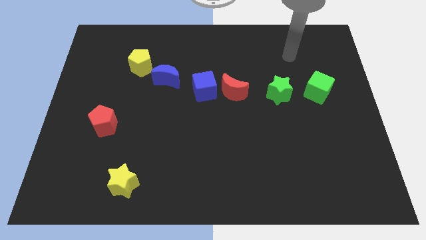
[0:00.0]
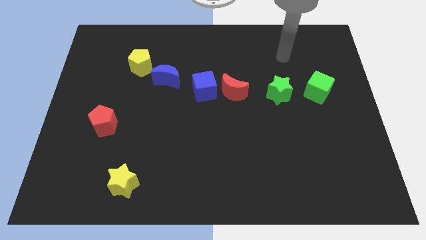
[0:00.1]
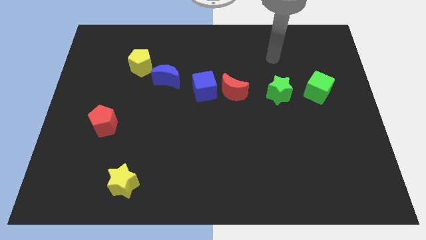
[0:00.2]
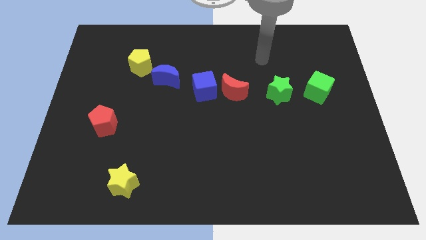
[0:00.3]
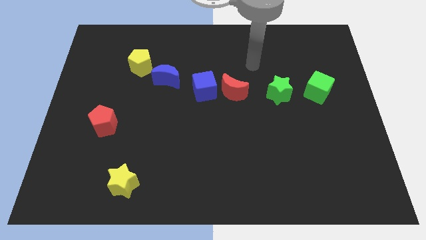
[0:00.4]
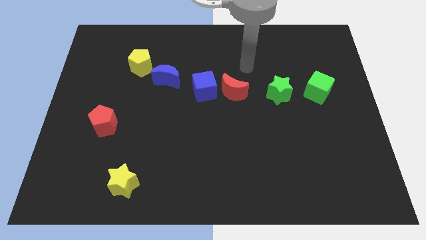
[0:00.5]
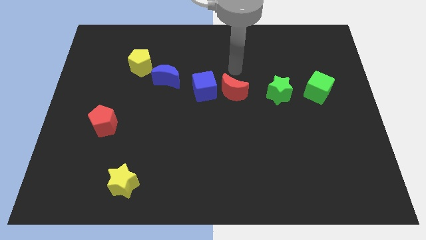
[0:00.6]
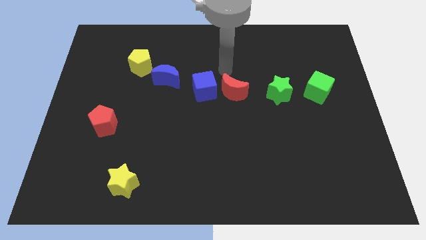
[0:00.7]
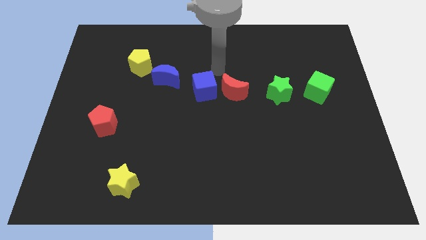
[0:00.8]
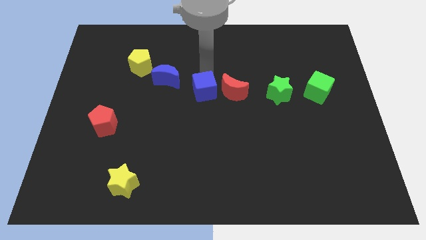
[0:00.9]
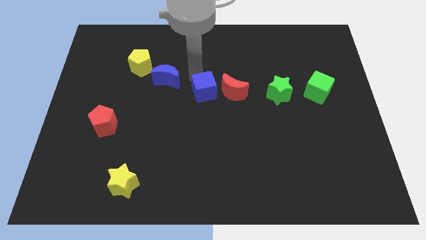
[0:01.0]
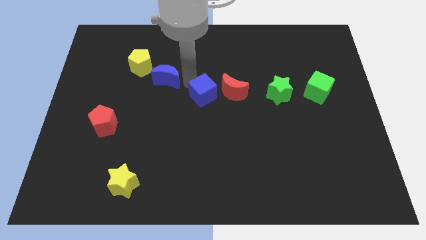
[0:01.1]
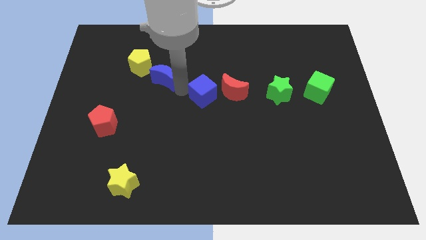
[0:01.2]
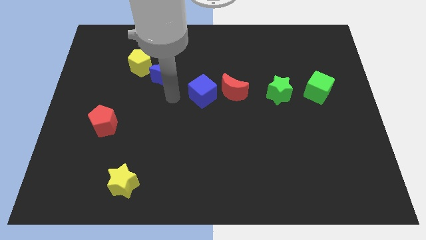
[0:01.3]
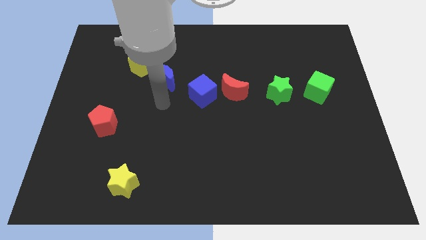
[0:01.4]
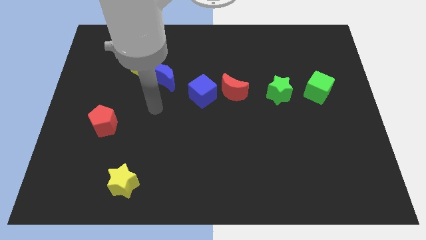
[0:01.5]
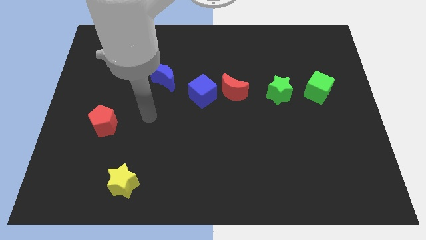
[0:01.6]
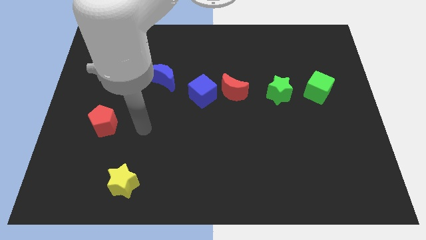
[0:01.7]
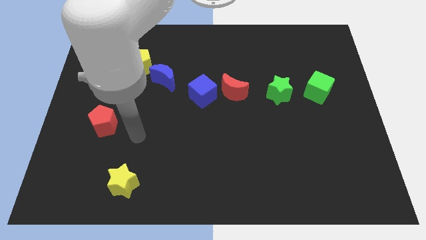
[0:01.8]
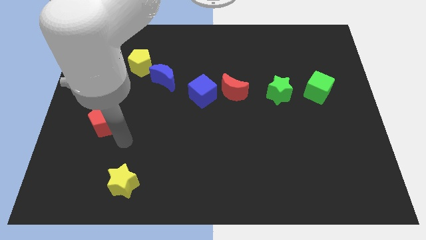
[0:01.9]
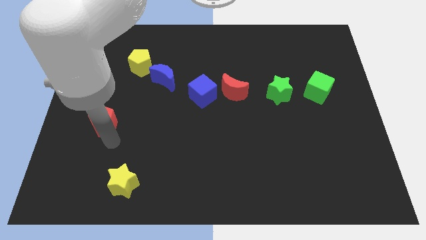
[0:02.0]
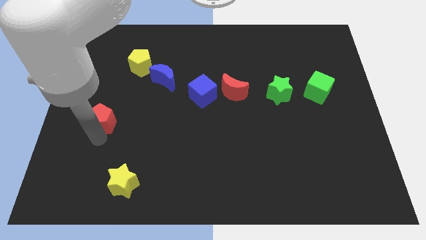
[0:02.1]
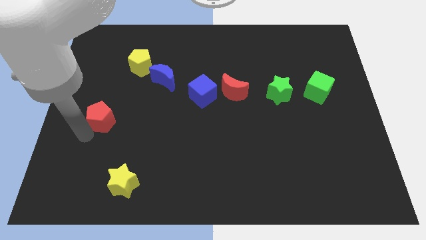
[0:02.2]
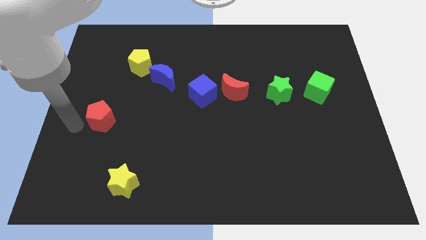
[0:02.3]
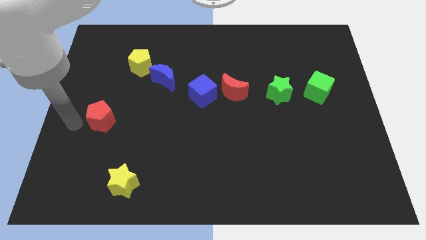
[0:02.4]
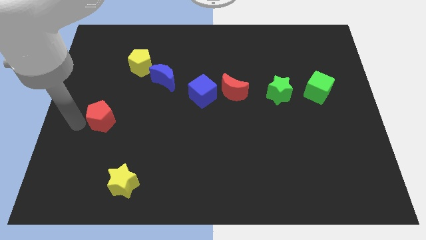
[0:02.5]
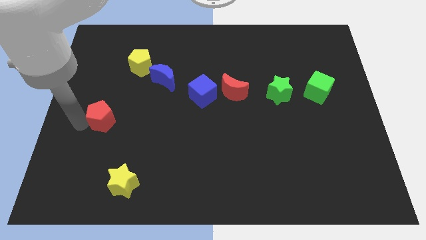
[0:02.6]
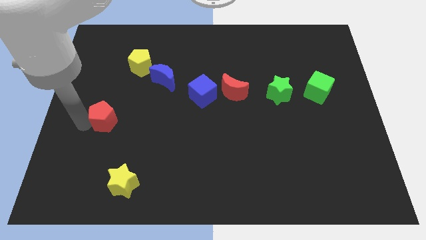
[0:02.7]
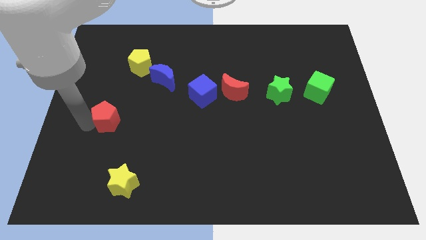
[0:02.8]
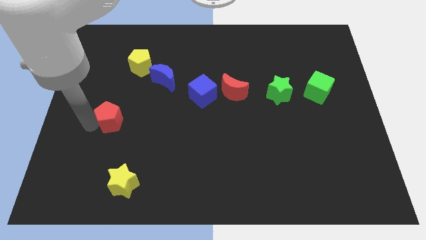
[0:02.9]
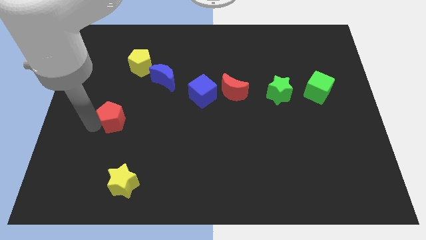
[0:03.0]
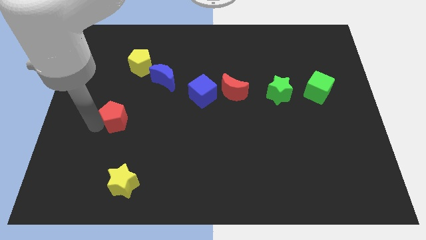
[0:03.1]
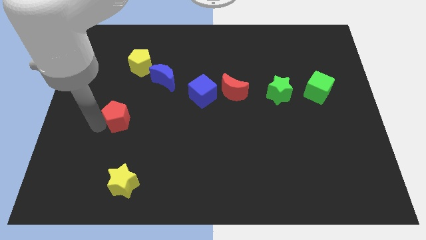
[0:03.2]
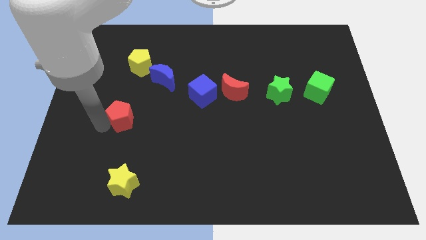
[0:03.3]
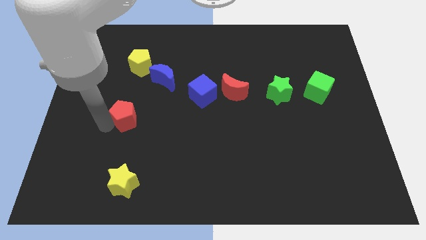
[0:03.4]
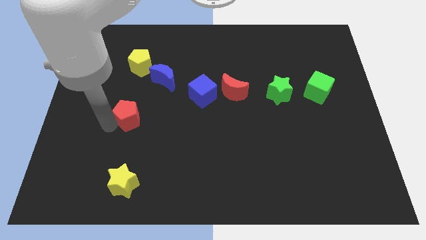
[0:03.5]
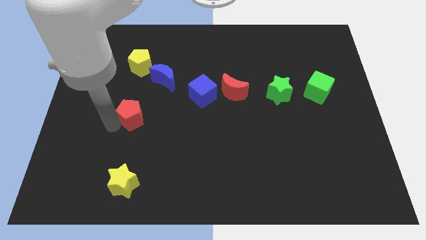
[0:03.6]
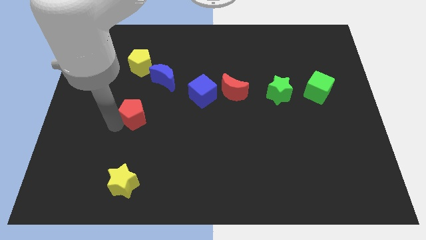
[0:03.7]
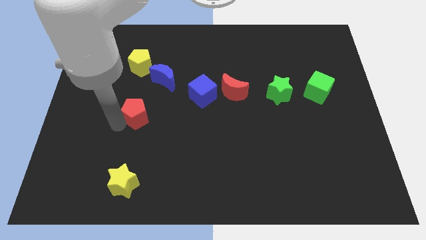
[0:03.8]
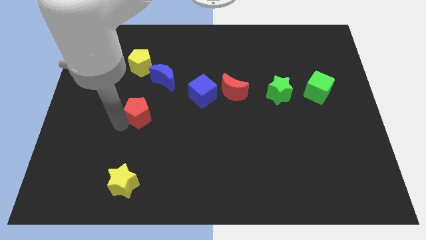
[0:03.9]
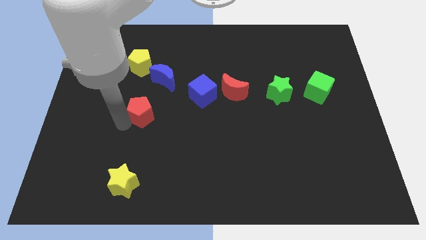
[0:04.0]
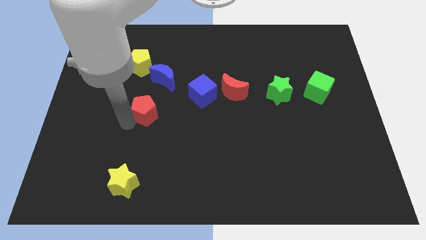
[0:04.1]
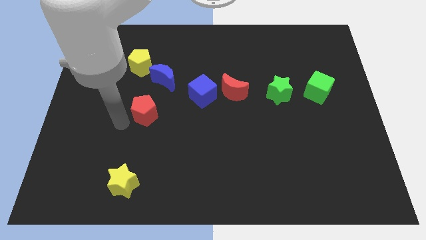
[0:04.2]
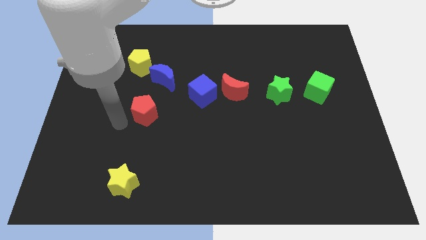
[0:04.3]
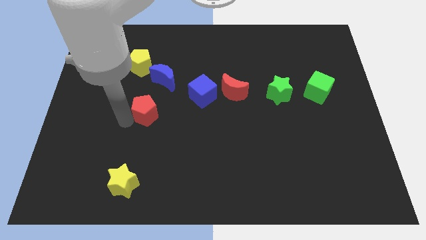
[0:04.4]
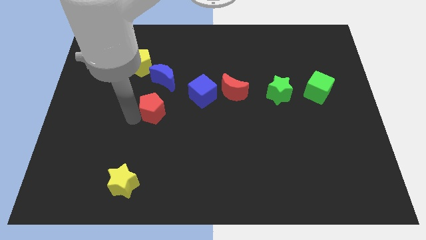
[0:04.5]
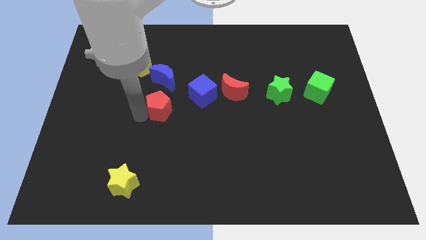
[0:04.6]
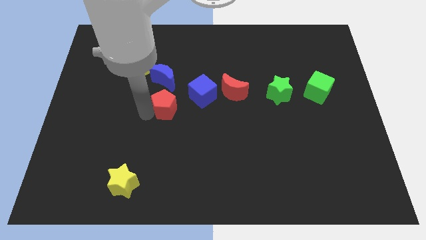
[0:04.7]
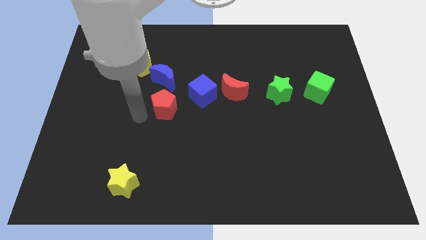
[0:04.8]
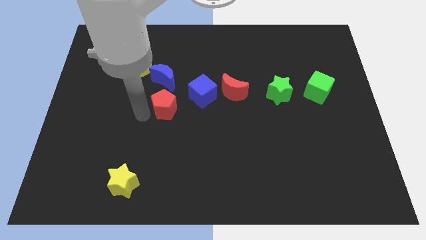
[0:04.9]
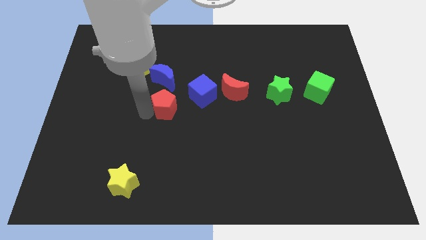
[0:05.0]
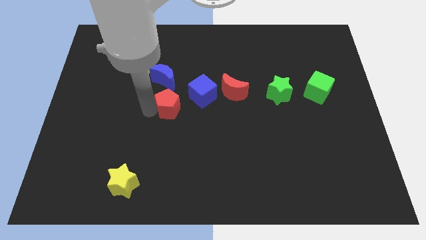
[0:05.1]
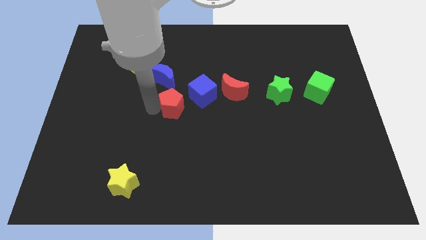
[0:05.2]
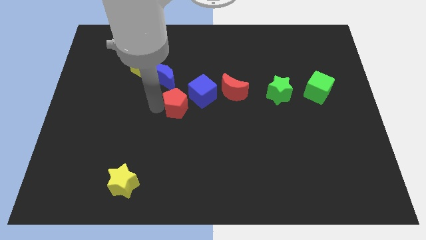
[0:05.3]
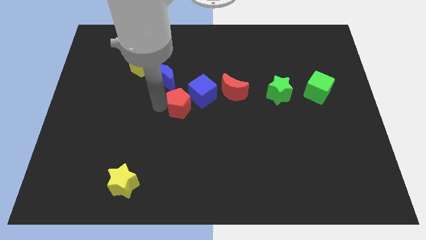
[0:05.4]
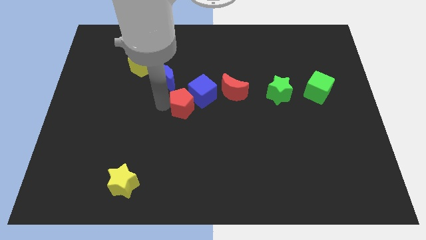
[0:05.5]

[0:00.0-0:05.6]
push the red pentagon next to the blue cube

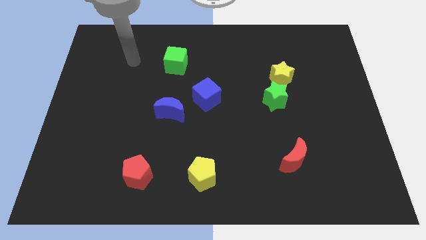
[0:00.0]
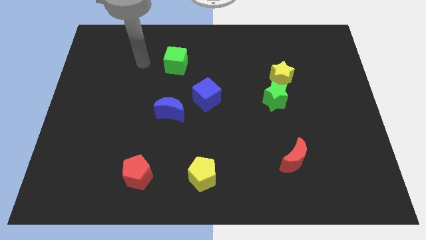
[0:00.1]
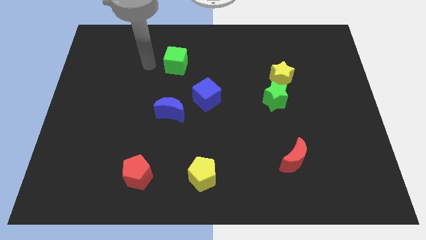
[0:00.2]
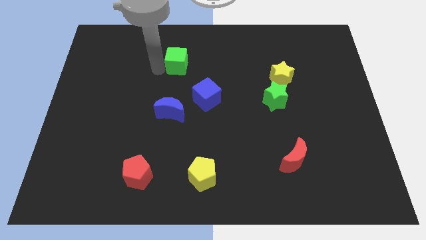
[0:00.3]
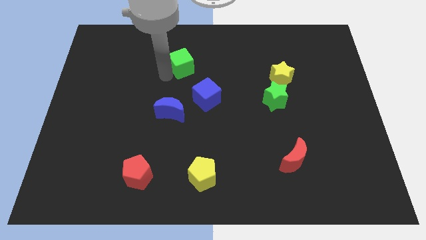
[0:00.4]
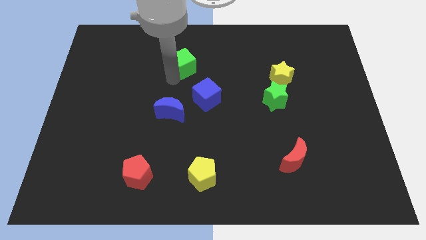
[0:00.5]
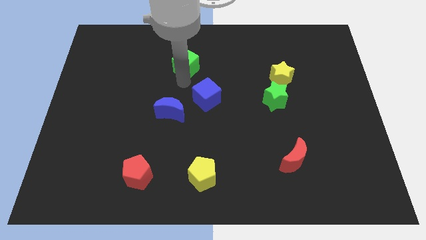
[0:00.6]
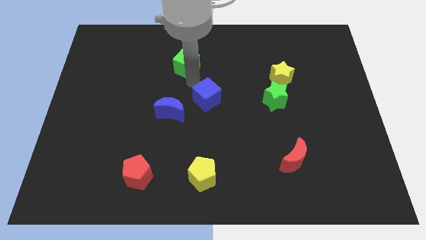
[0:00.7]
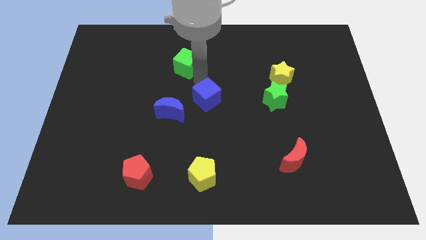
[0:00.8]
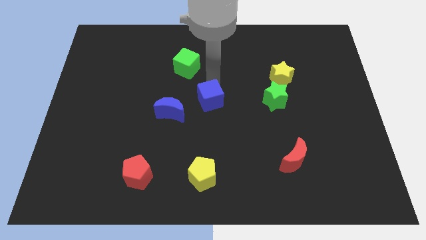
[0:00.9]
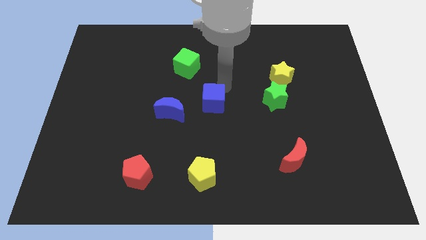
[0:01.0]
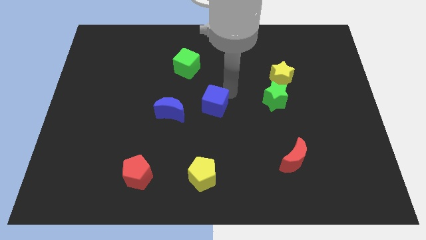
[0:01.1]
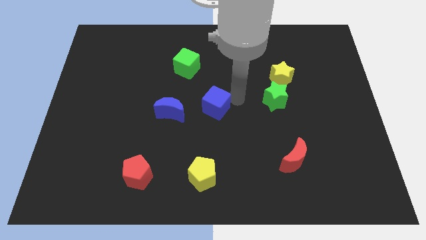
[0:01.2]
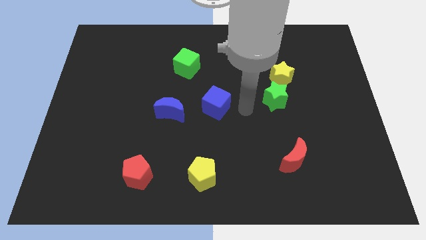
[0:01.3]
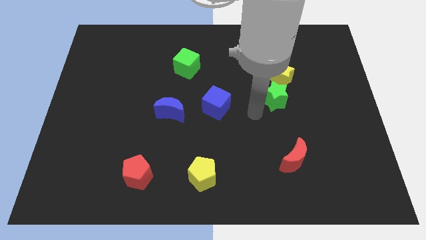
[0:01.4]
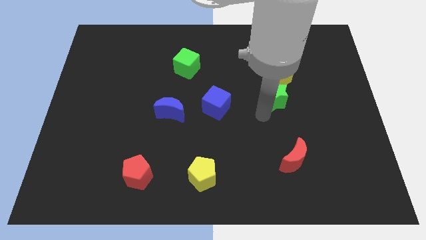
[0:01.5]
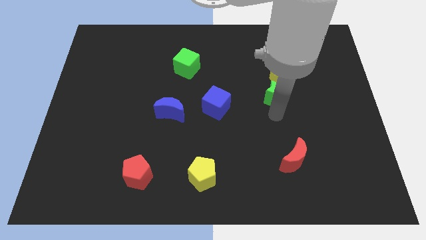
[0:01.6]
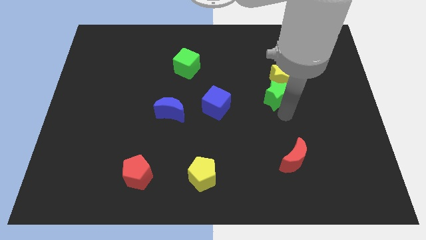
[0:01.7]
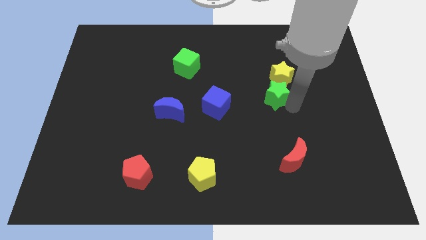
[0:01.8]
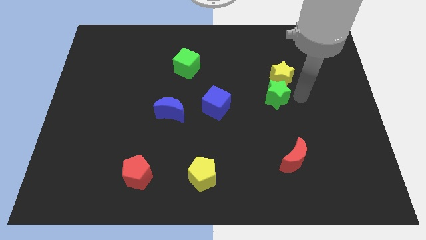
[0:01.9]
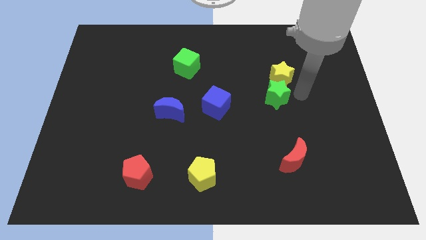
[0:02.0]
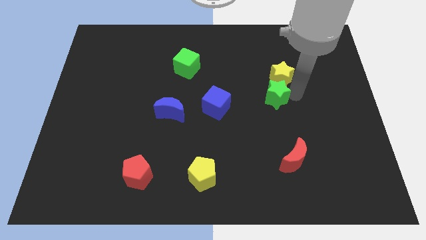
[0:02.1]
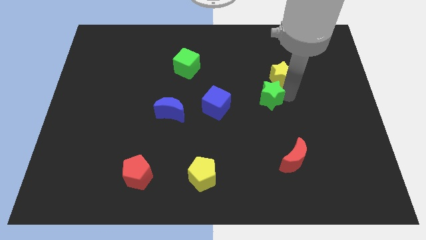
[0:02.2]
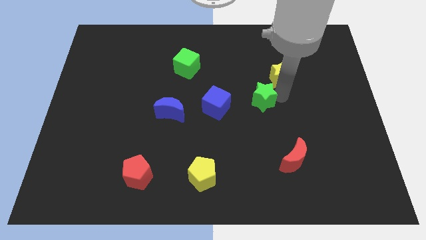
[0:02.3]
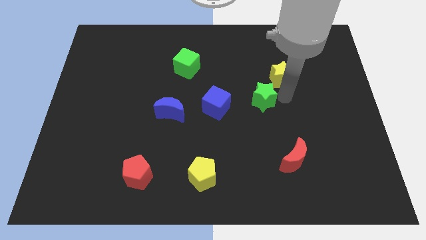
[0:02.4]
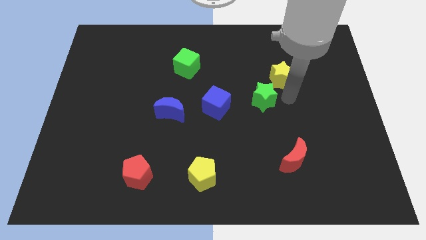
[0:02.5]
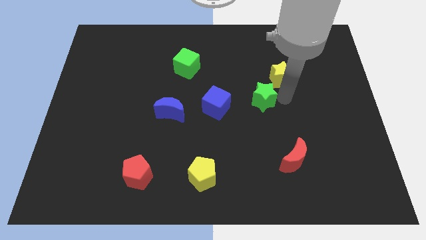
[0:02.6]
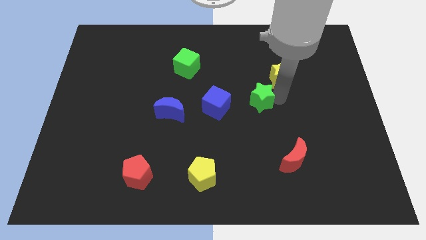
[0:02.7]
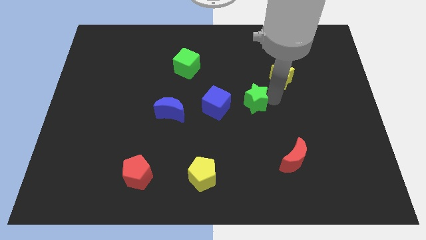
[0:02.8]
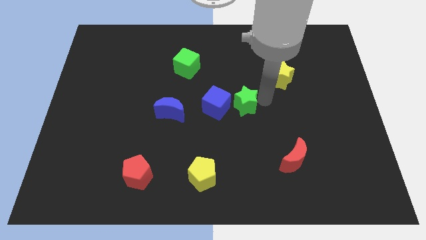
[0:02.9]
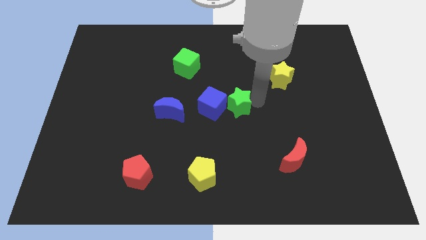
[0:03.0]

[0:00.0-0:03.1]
push the green star towards the blue cube
